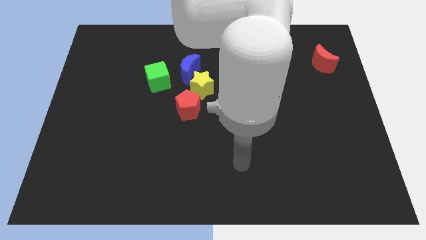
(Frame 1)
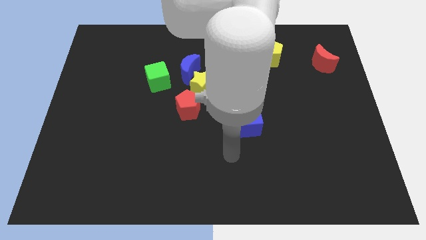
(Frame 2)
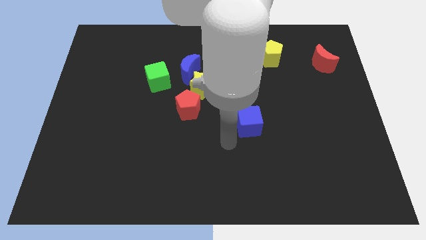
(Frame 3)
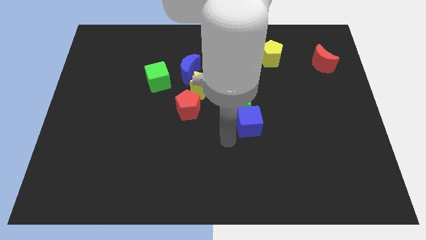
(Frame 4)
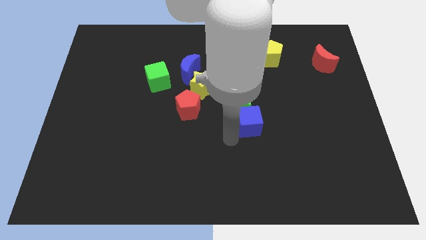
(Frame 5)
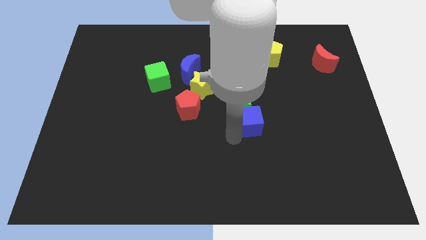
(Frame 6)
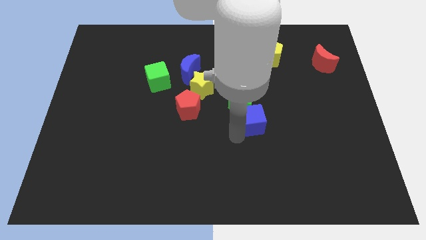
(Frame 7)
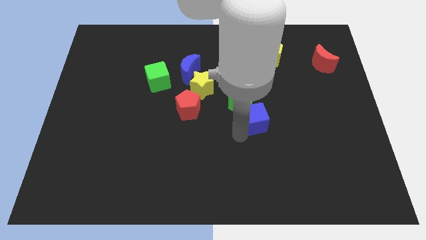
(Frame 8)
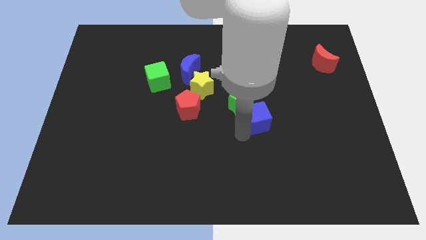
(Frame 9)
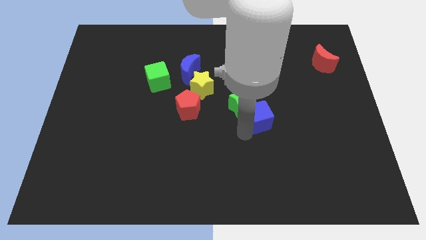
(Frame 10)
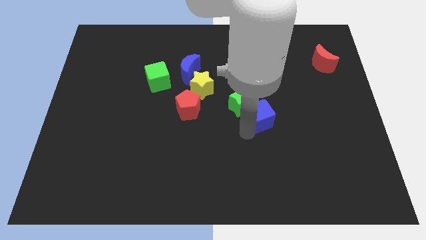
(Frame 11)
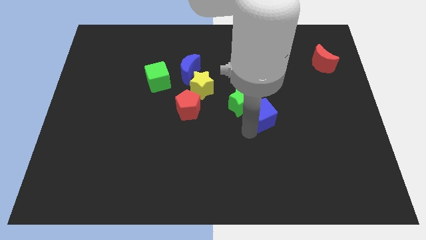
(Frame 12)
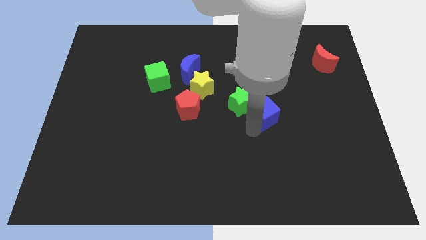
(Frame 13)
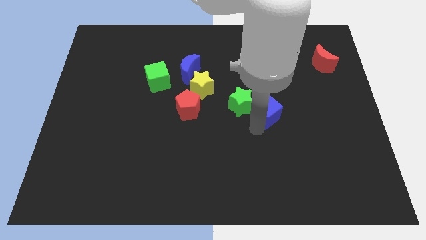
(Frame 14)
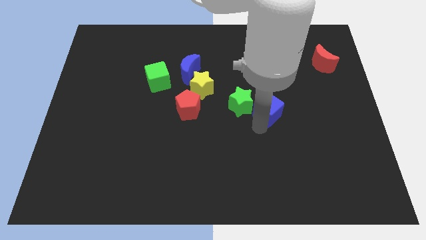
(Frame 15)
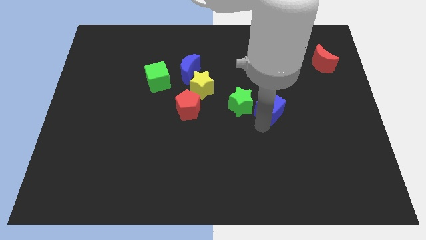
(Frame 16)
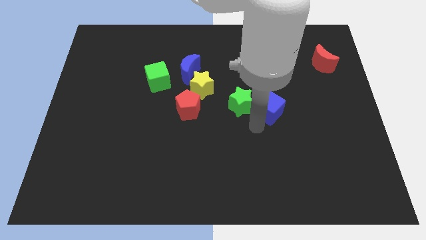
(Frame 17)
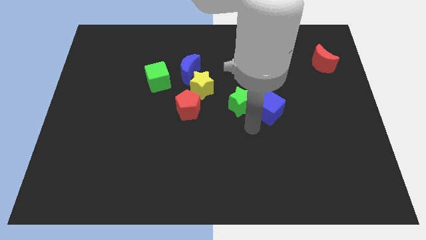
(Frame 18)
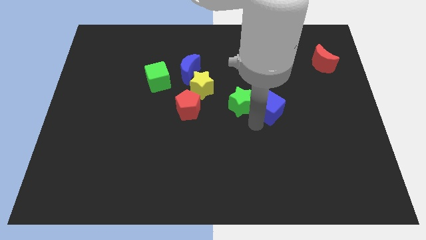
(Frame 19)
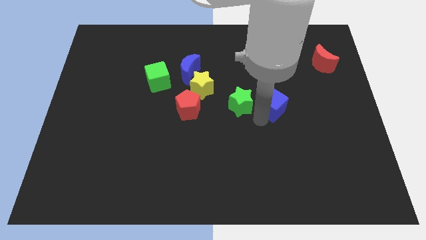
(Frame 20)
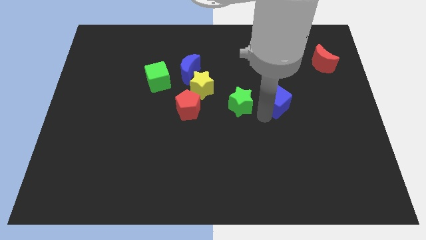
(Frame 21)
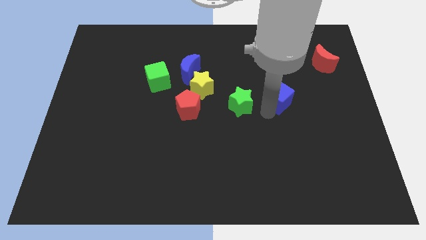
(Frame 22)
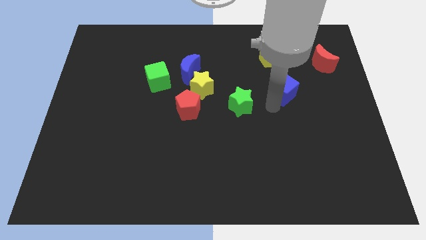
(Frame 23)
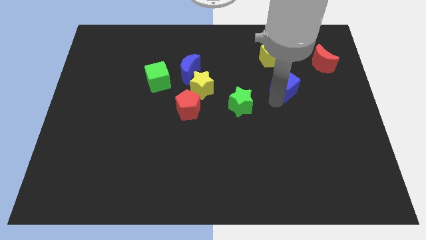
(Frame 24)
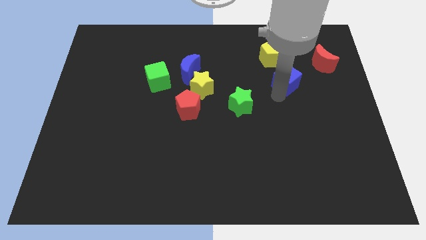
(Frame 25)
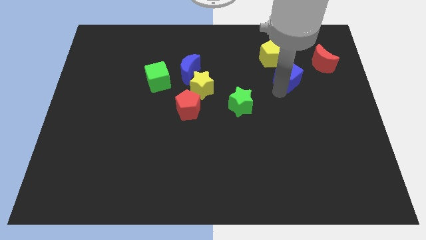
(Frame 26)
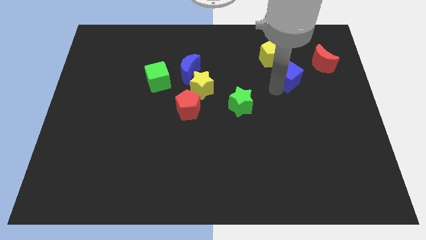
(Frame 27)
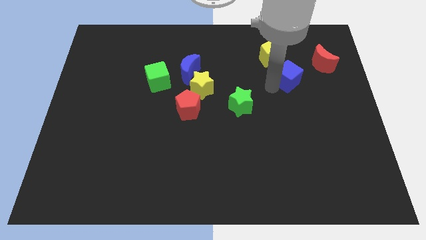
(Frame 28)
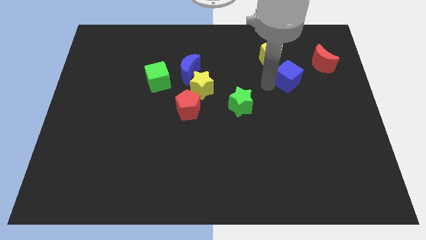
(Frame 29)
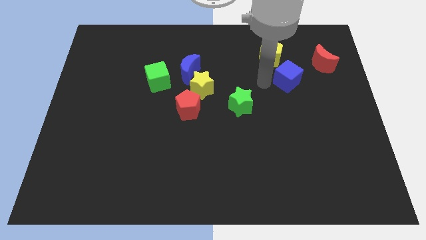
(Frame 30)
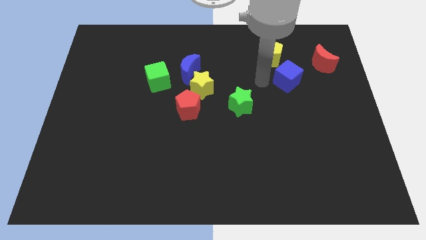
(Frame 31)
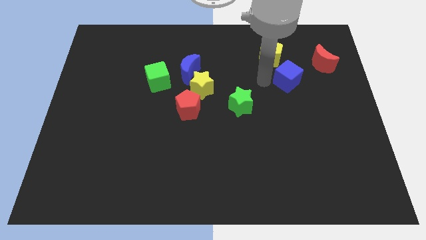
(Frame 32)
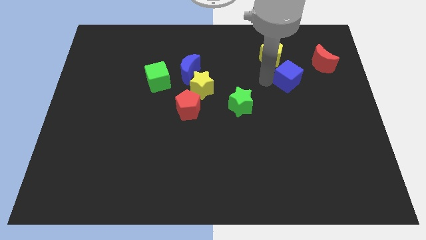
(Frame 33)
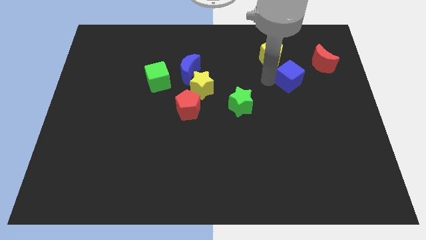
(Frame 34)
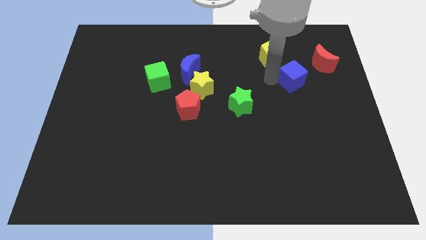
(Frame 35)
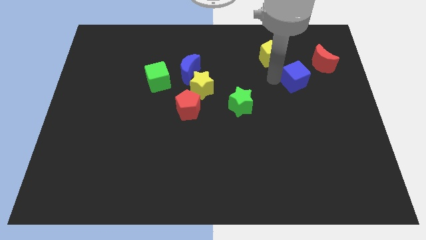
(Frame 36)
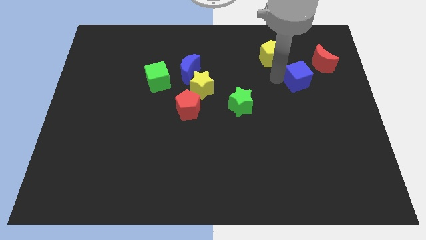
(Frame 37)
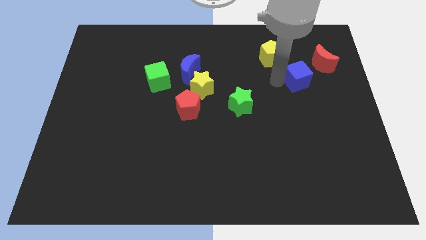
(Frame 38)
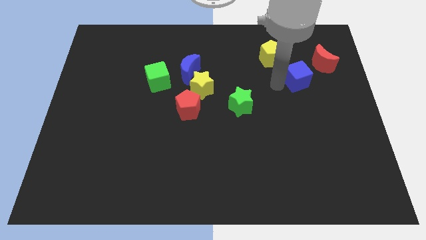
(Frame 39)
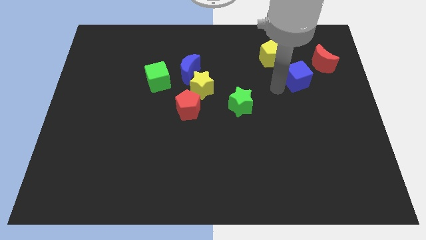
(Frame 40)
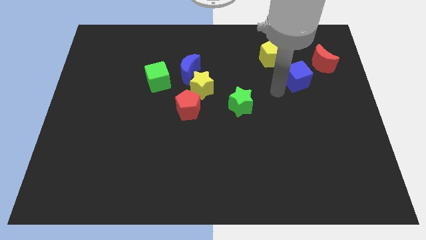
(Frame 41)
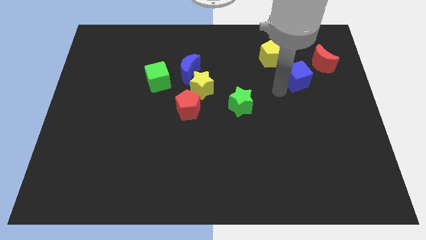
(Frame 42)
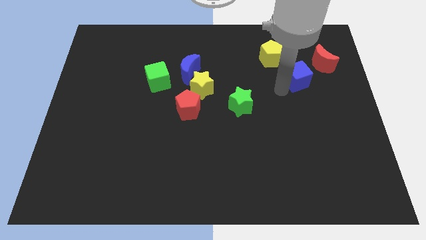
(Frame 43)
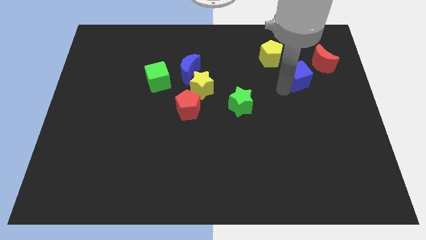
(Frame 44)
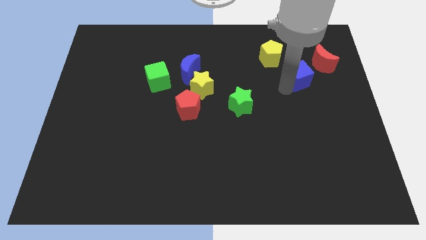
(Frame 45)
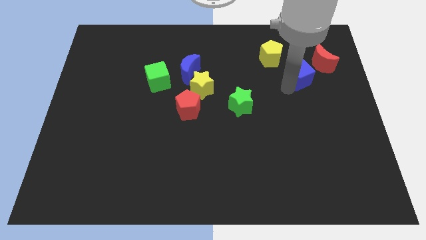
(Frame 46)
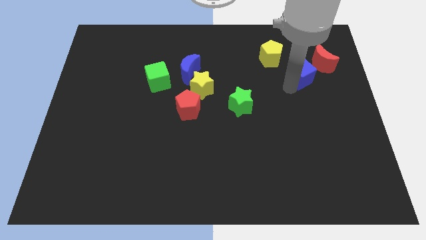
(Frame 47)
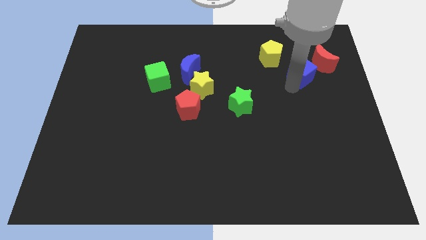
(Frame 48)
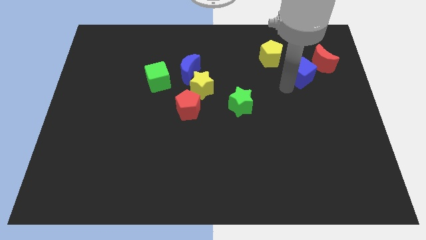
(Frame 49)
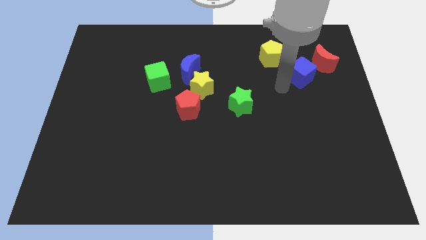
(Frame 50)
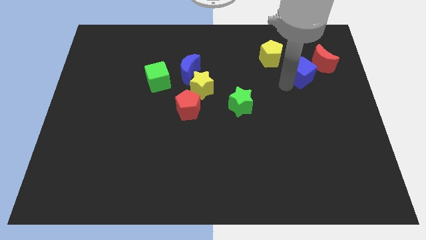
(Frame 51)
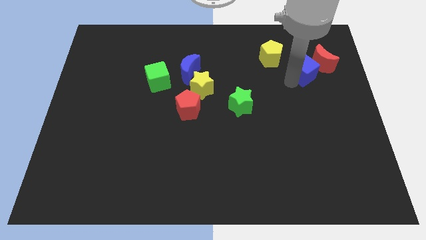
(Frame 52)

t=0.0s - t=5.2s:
slide the blue cube to the red moon

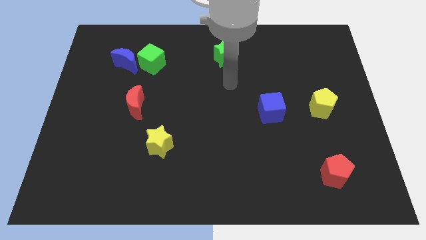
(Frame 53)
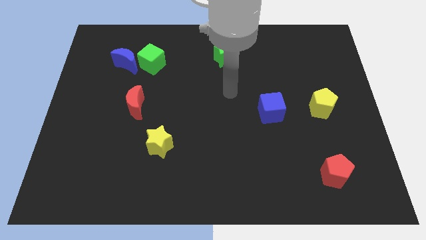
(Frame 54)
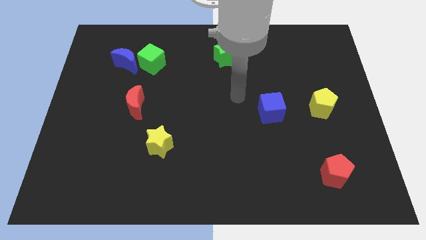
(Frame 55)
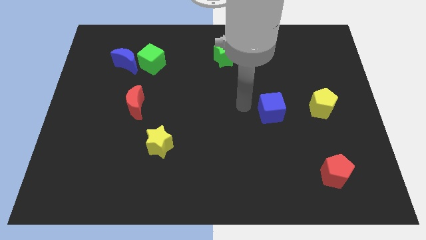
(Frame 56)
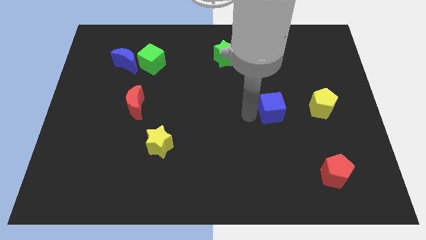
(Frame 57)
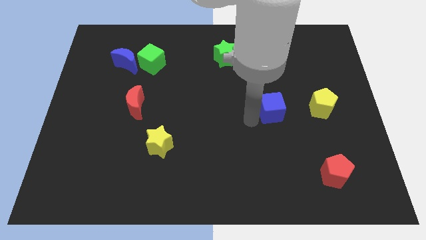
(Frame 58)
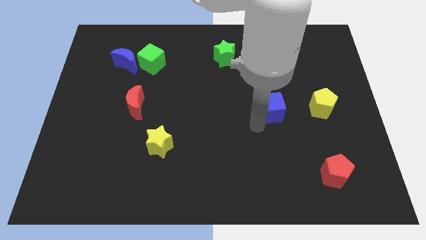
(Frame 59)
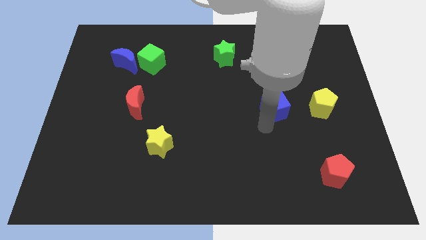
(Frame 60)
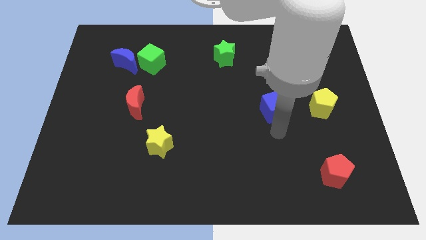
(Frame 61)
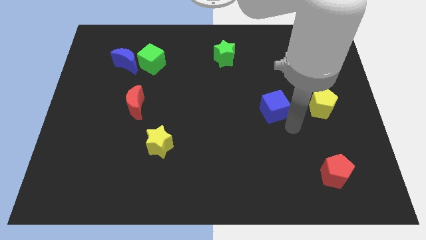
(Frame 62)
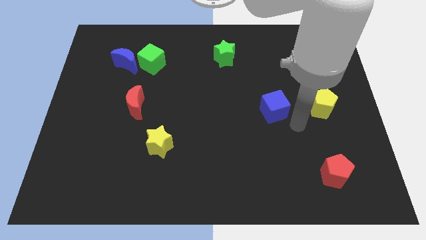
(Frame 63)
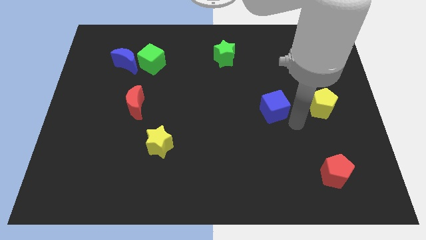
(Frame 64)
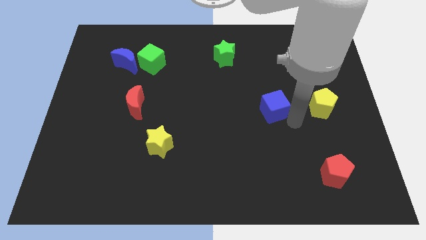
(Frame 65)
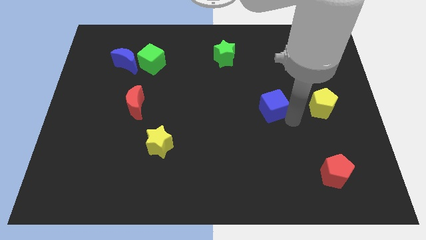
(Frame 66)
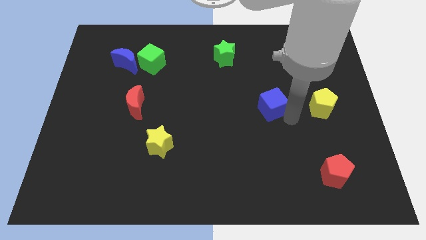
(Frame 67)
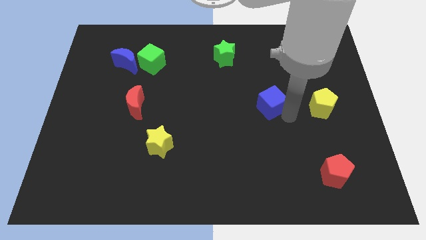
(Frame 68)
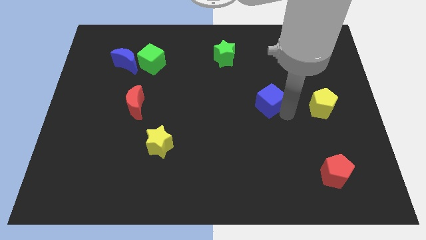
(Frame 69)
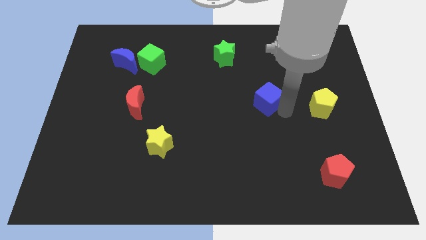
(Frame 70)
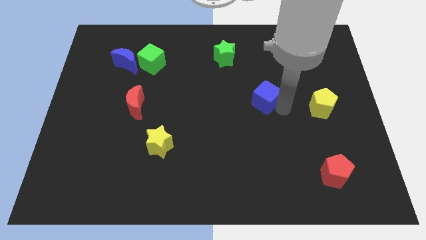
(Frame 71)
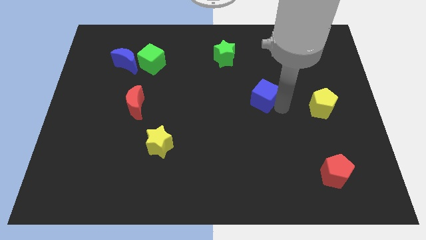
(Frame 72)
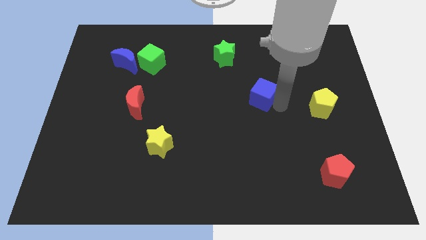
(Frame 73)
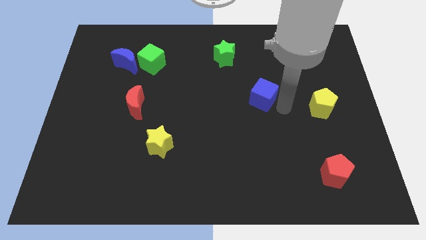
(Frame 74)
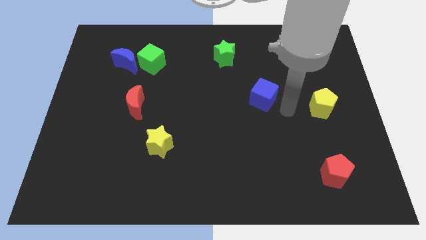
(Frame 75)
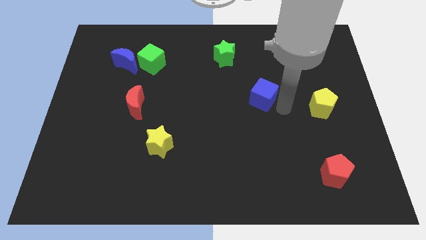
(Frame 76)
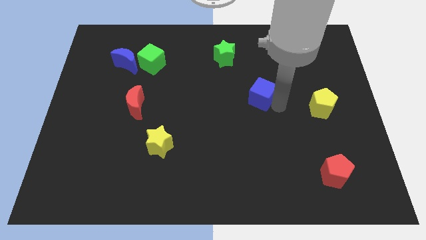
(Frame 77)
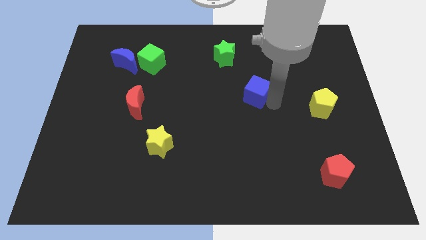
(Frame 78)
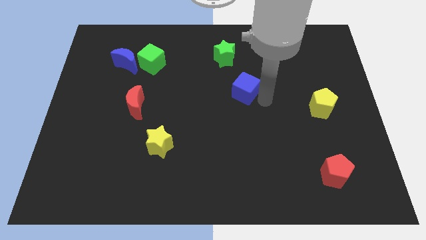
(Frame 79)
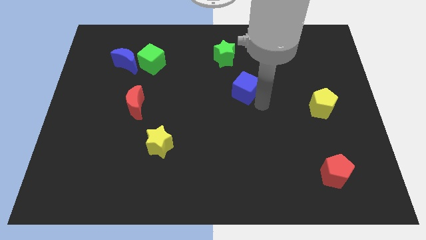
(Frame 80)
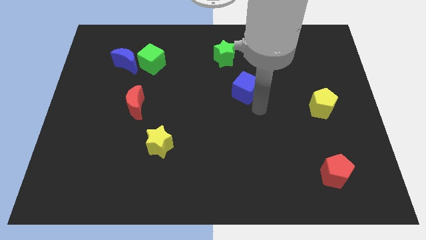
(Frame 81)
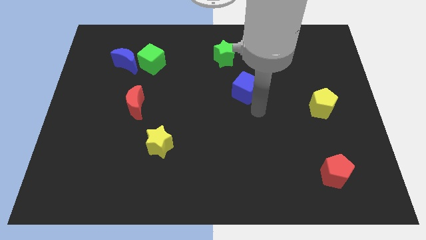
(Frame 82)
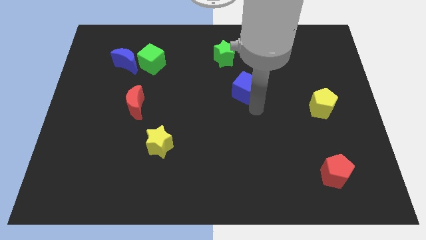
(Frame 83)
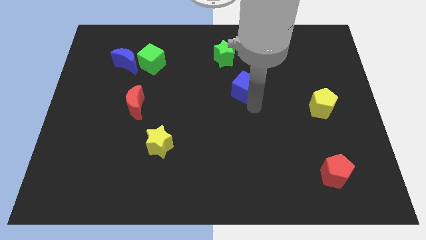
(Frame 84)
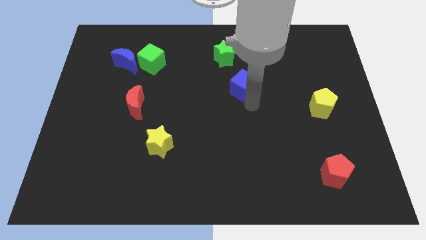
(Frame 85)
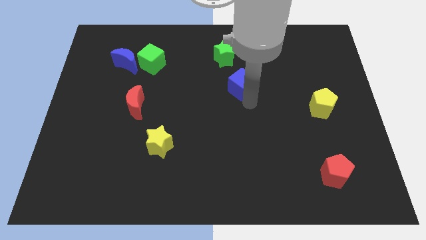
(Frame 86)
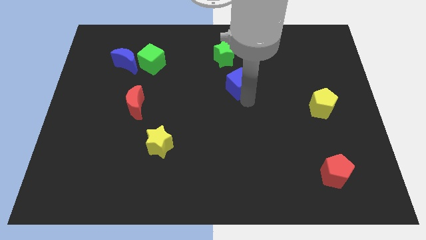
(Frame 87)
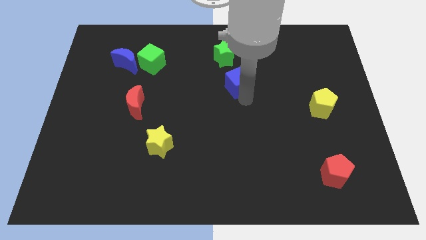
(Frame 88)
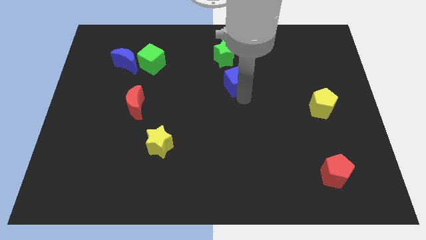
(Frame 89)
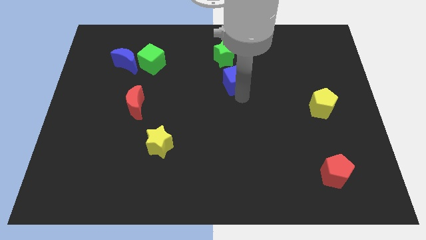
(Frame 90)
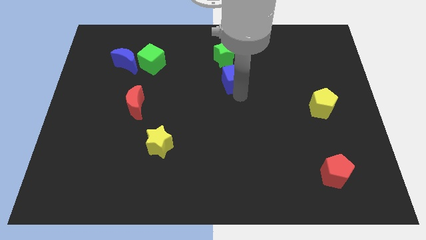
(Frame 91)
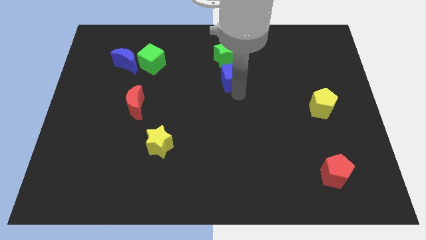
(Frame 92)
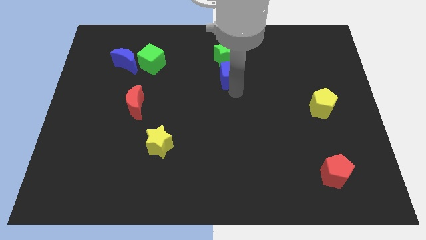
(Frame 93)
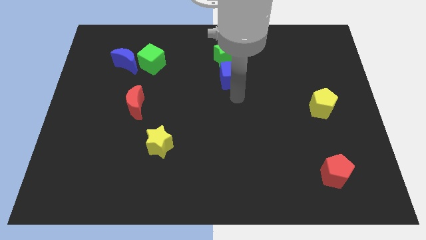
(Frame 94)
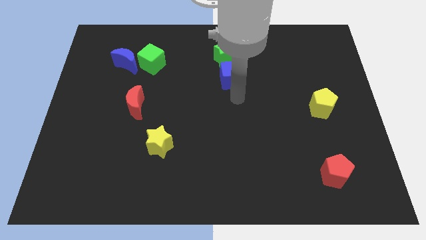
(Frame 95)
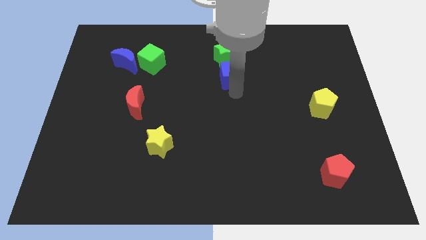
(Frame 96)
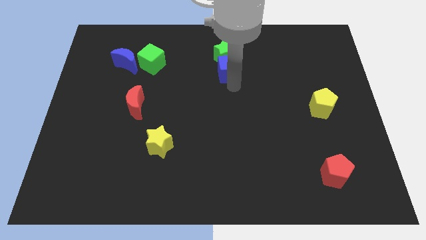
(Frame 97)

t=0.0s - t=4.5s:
put the blue cube to the green star
